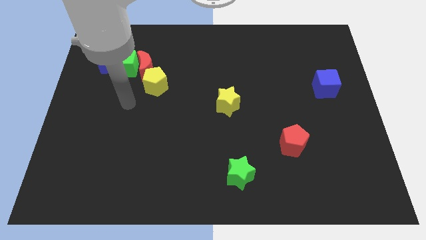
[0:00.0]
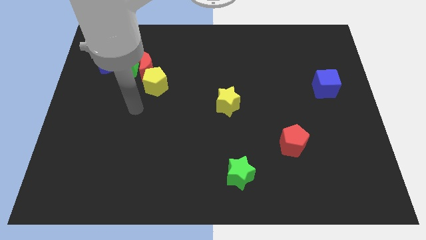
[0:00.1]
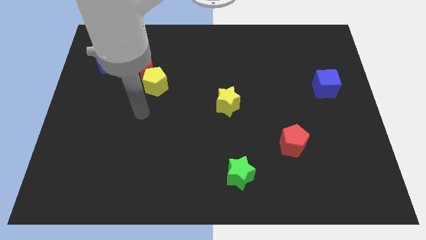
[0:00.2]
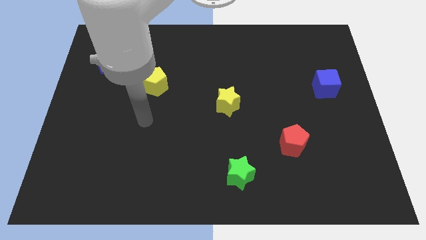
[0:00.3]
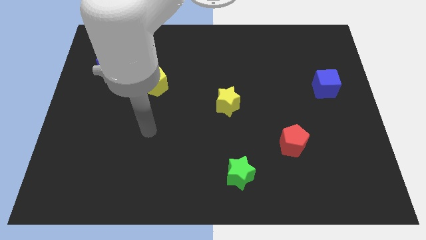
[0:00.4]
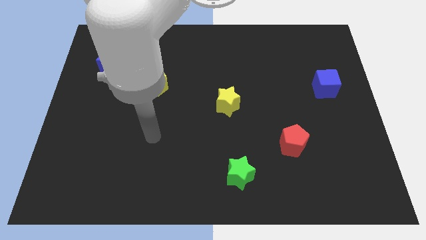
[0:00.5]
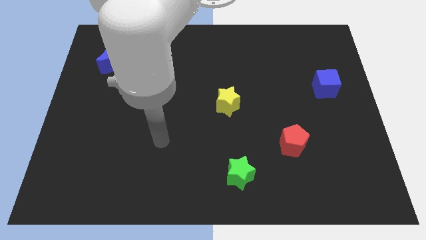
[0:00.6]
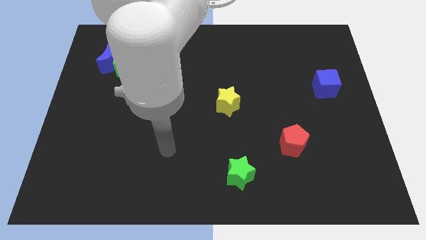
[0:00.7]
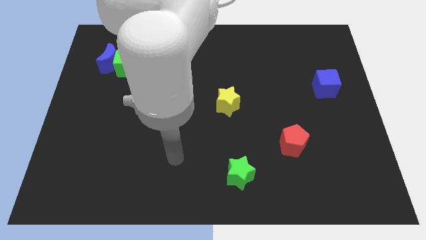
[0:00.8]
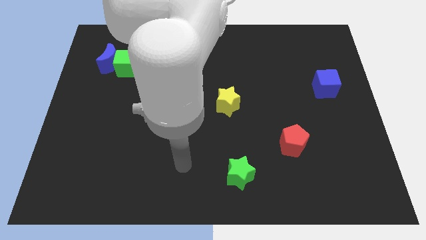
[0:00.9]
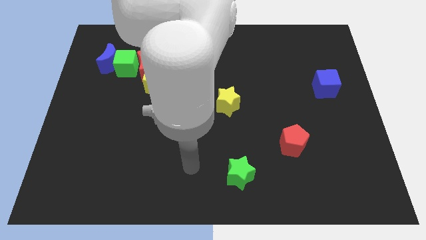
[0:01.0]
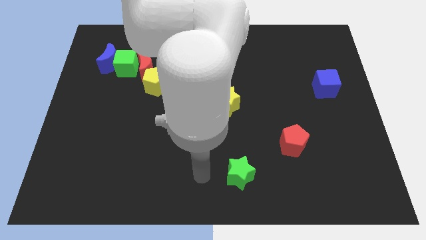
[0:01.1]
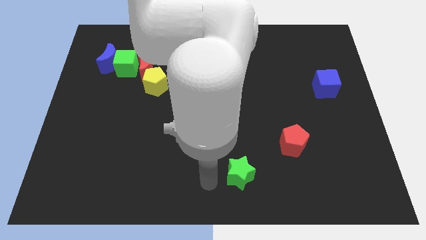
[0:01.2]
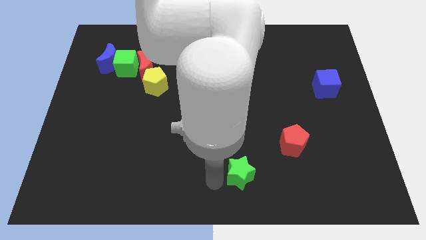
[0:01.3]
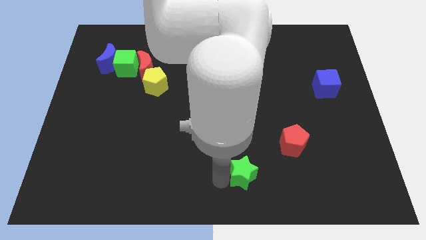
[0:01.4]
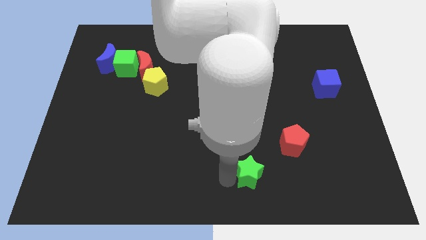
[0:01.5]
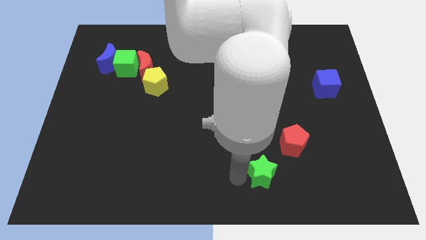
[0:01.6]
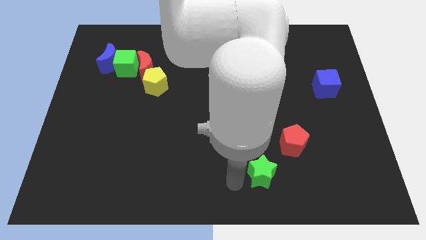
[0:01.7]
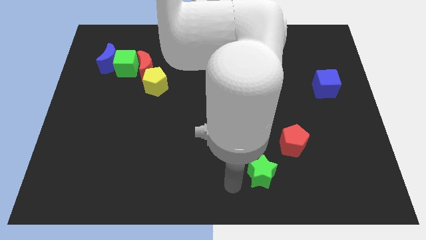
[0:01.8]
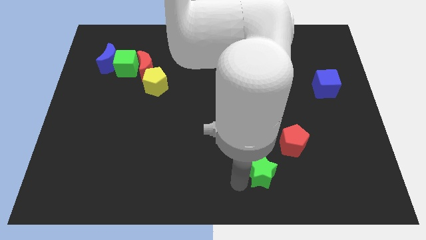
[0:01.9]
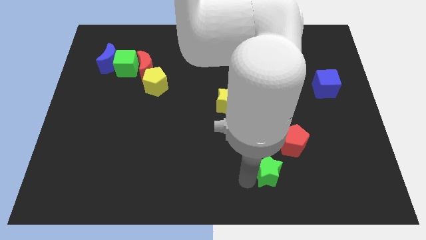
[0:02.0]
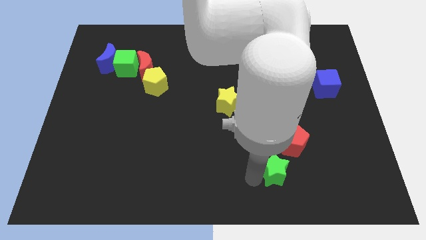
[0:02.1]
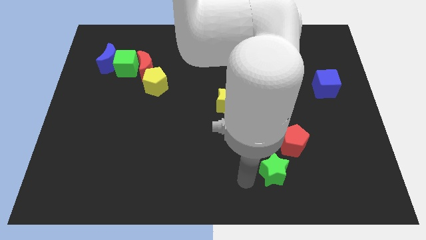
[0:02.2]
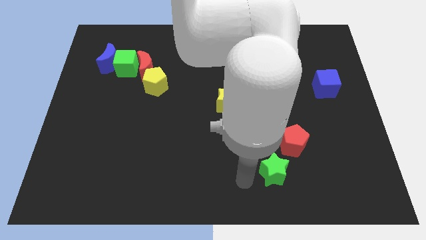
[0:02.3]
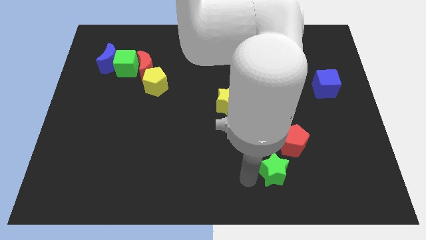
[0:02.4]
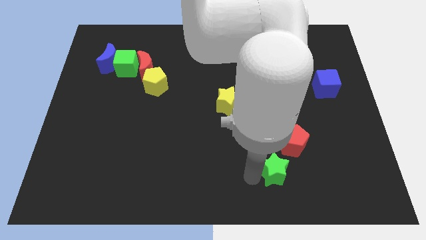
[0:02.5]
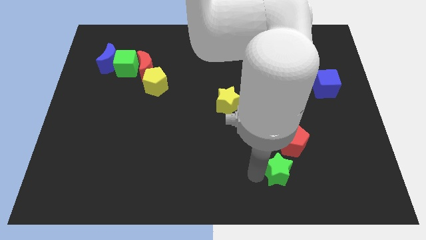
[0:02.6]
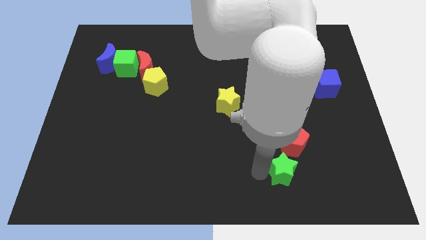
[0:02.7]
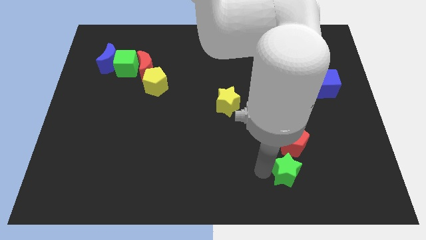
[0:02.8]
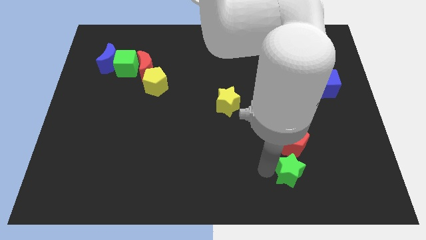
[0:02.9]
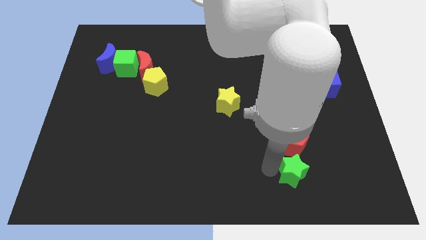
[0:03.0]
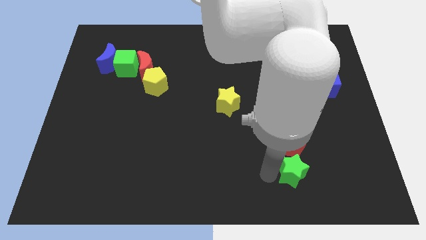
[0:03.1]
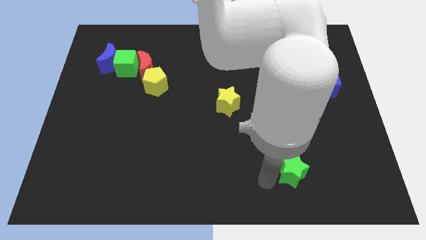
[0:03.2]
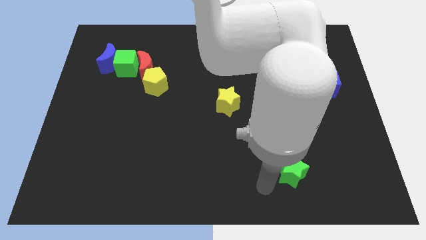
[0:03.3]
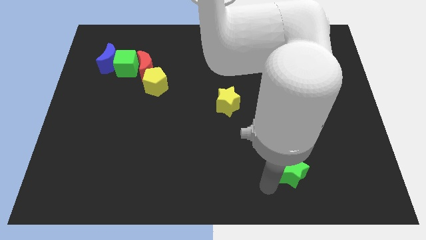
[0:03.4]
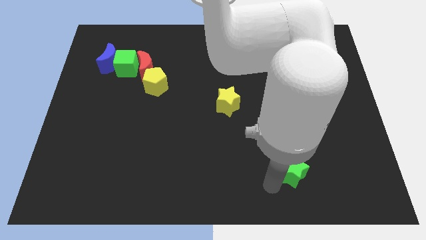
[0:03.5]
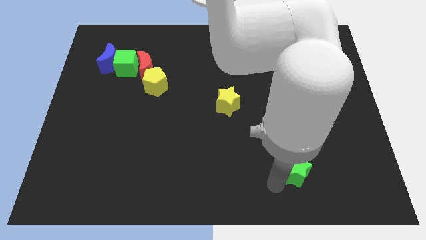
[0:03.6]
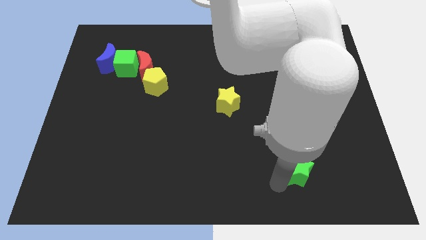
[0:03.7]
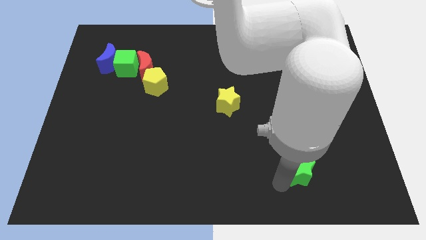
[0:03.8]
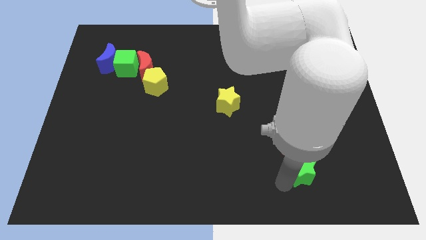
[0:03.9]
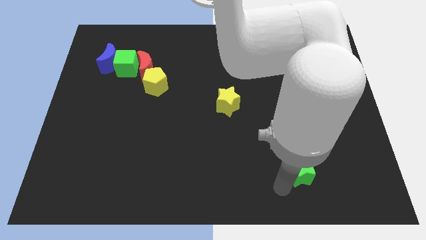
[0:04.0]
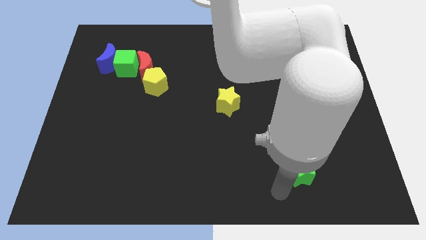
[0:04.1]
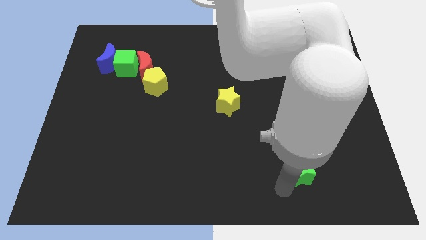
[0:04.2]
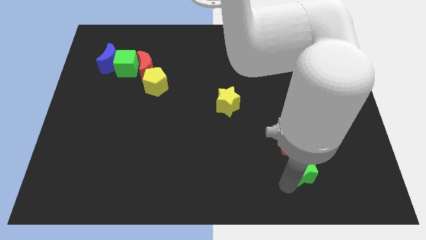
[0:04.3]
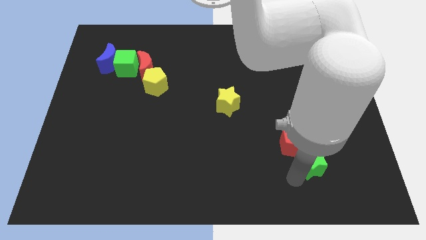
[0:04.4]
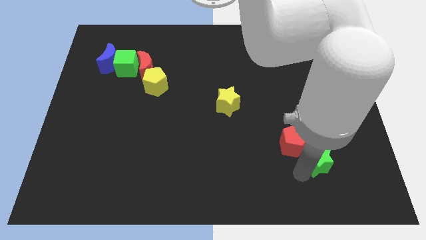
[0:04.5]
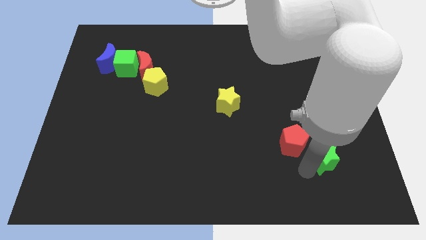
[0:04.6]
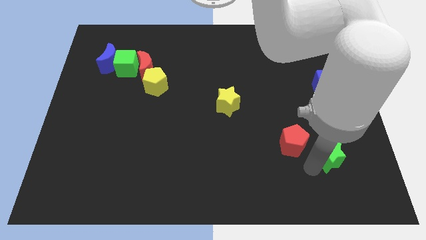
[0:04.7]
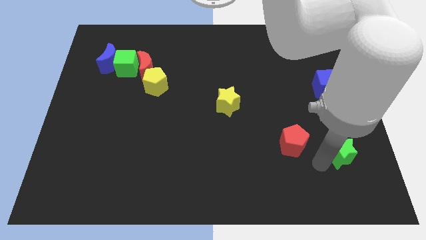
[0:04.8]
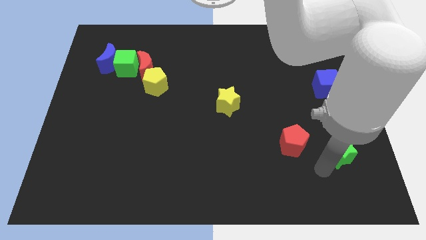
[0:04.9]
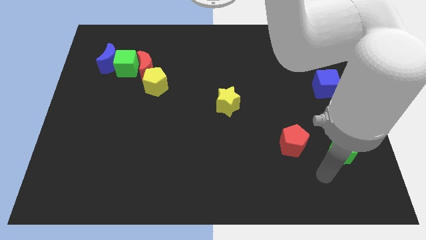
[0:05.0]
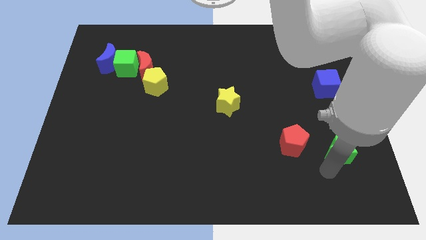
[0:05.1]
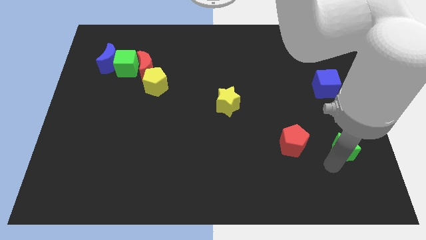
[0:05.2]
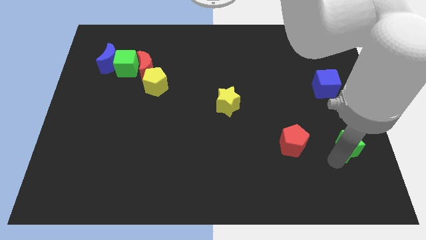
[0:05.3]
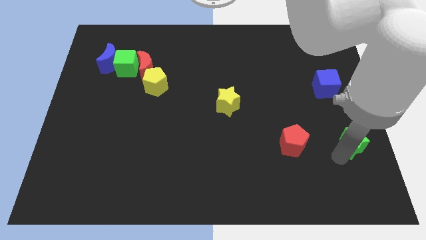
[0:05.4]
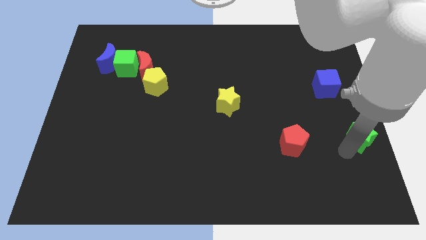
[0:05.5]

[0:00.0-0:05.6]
put the green star to the right side of the board

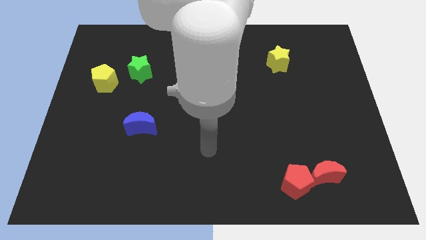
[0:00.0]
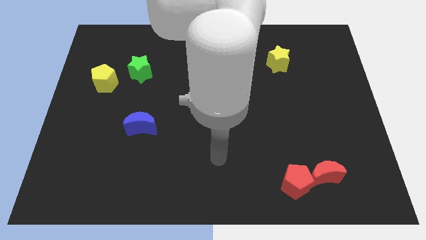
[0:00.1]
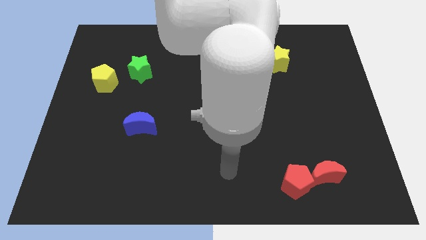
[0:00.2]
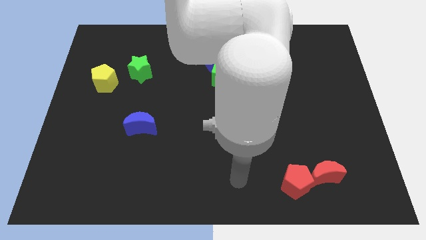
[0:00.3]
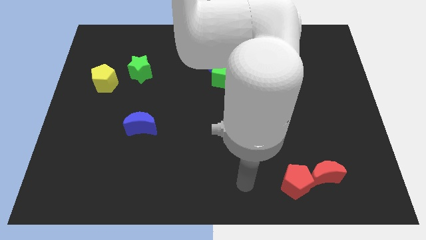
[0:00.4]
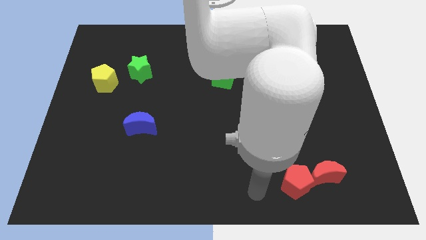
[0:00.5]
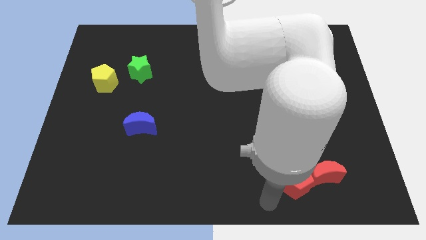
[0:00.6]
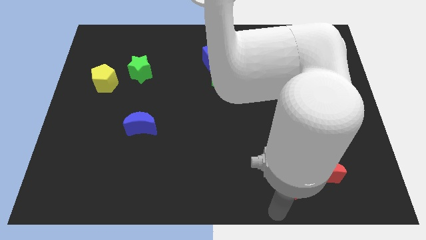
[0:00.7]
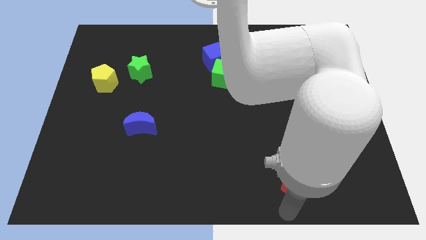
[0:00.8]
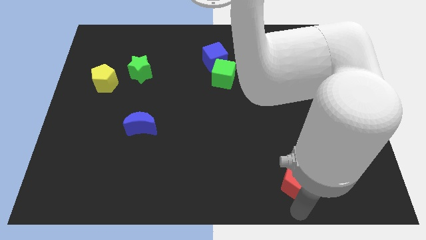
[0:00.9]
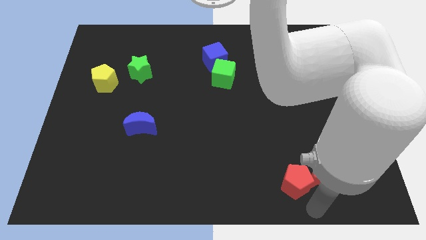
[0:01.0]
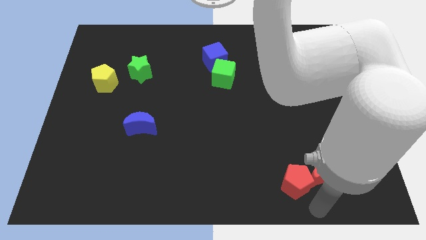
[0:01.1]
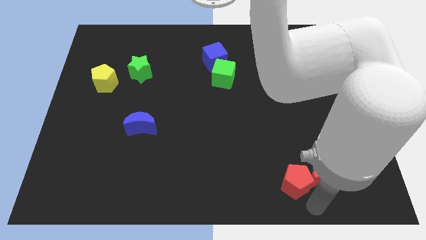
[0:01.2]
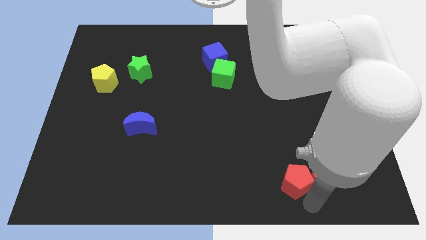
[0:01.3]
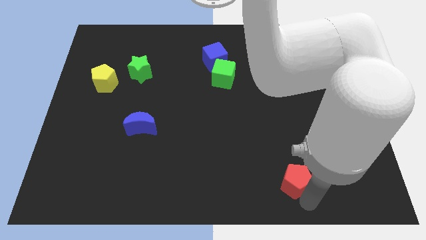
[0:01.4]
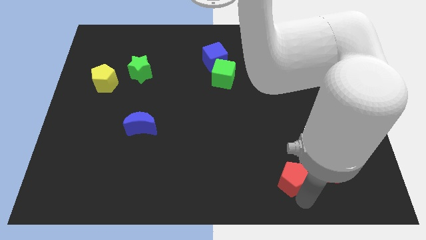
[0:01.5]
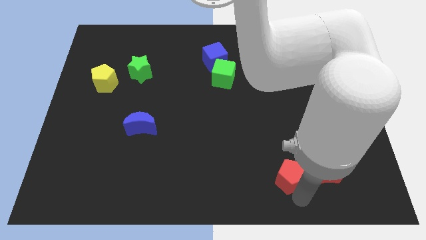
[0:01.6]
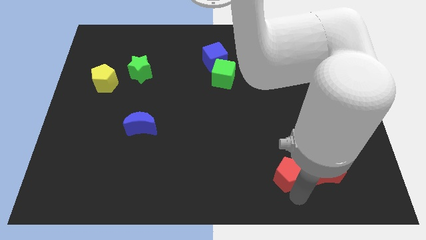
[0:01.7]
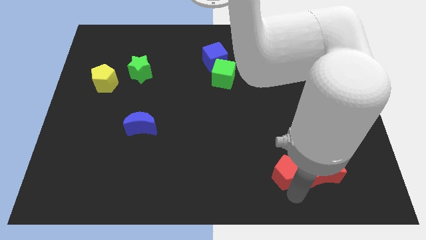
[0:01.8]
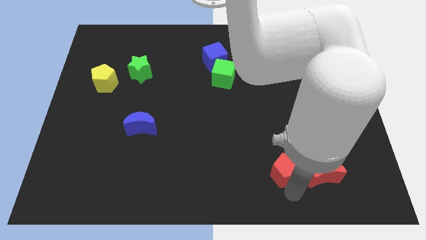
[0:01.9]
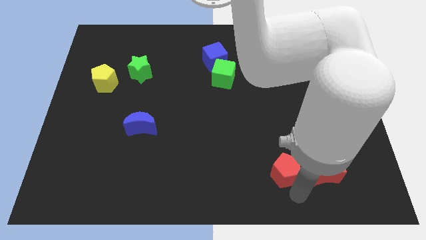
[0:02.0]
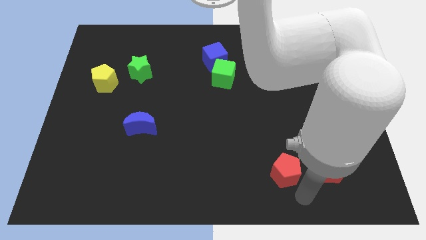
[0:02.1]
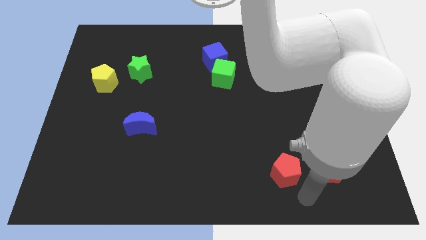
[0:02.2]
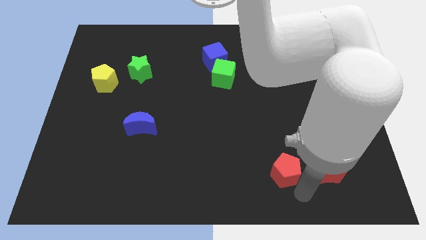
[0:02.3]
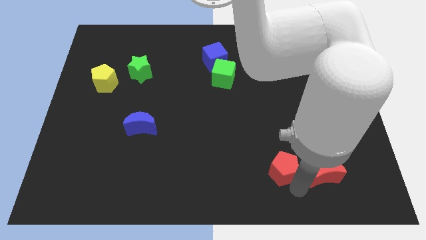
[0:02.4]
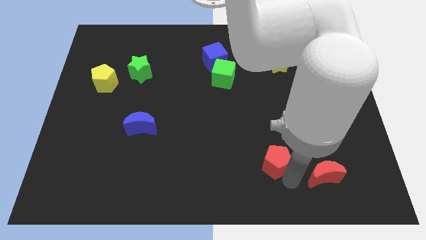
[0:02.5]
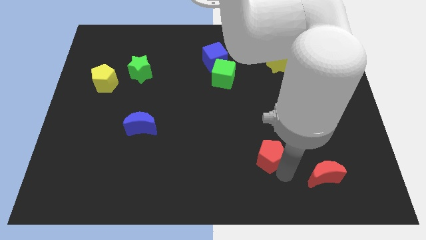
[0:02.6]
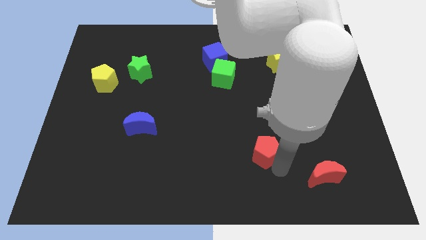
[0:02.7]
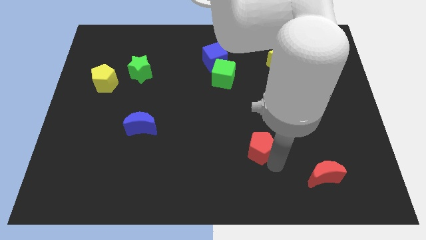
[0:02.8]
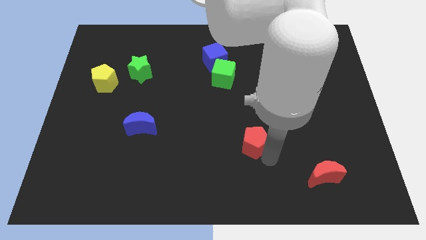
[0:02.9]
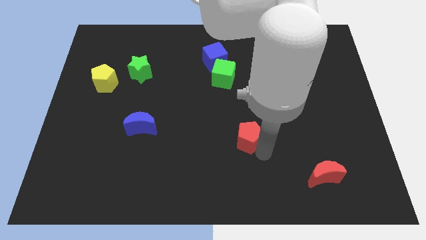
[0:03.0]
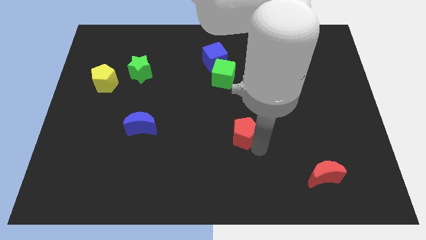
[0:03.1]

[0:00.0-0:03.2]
move the red pentagon to the center
